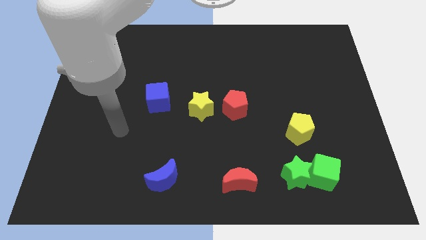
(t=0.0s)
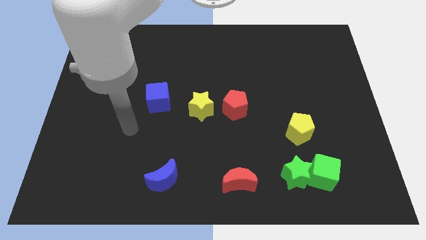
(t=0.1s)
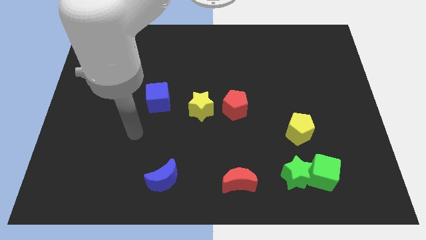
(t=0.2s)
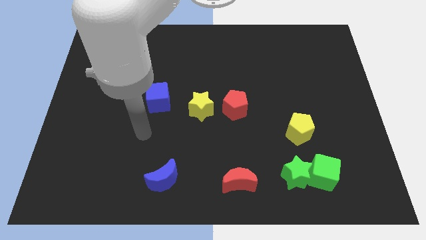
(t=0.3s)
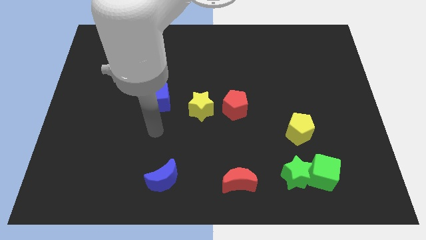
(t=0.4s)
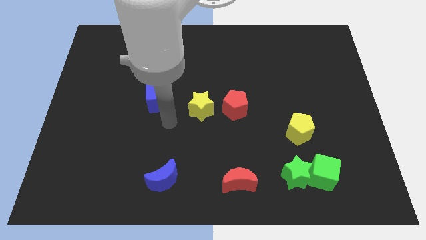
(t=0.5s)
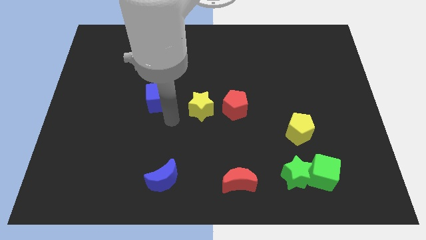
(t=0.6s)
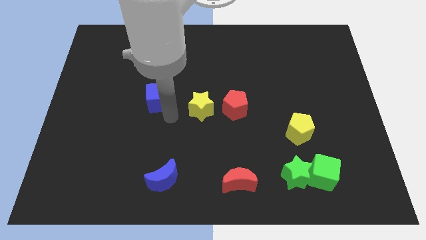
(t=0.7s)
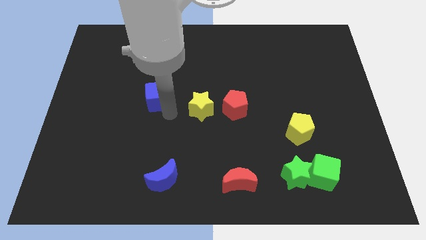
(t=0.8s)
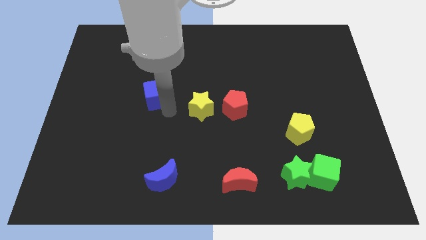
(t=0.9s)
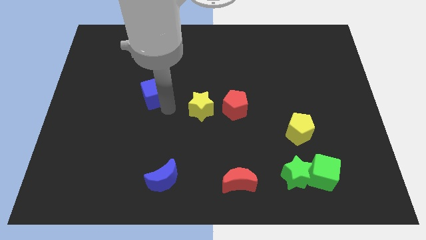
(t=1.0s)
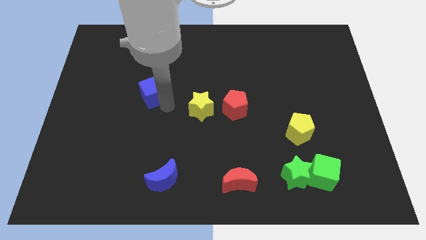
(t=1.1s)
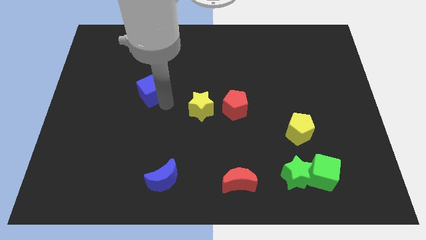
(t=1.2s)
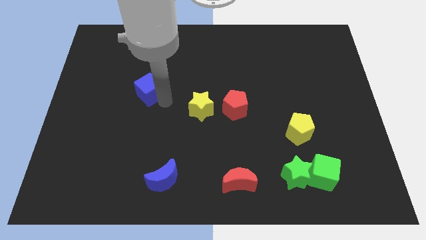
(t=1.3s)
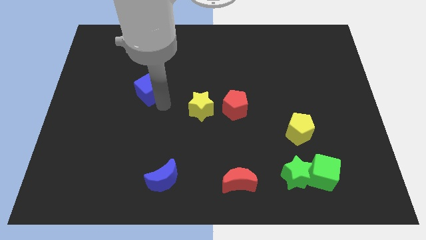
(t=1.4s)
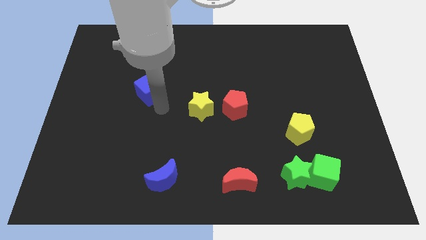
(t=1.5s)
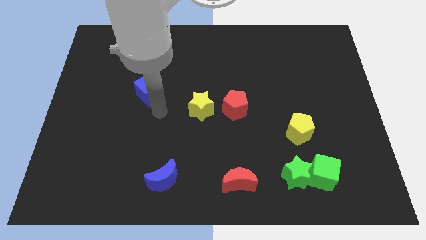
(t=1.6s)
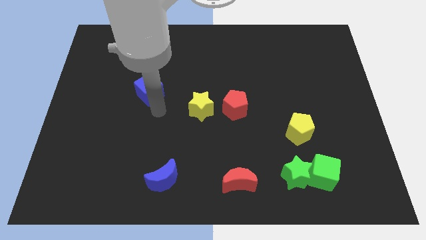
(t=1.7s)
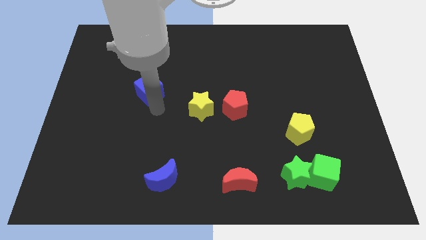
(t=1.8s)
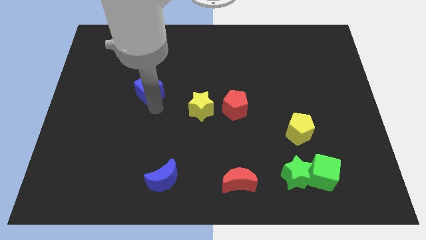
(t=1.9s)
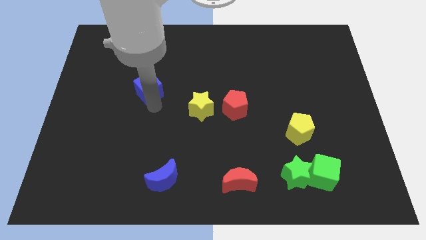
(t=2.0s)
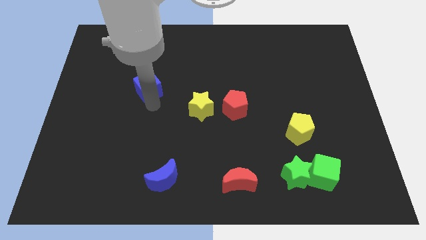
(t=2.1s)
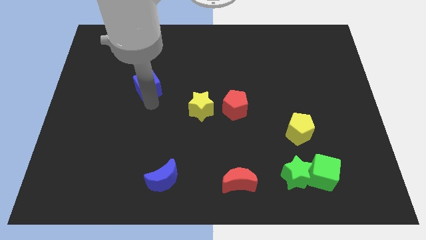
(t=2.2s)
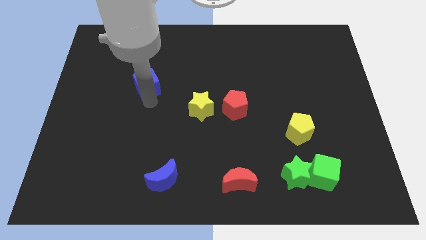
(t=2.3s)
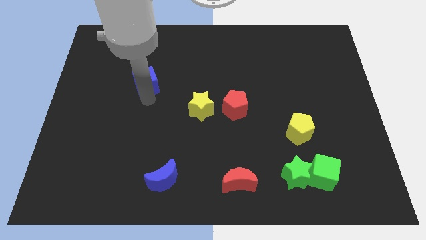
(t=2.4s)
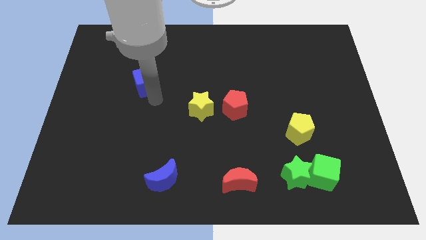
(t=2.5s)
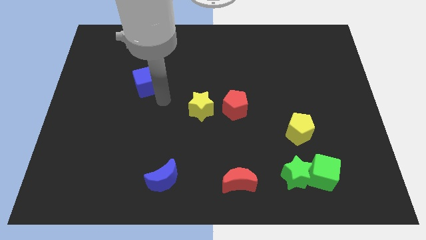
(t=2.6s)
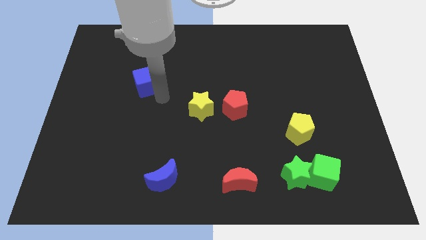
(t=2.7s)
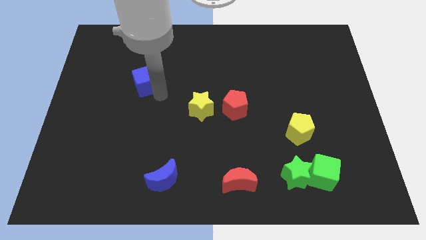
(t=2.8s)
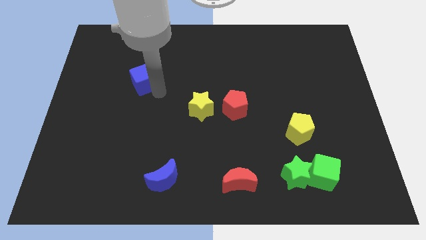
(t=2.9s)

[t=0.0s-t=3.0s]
slide the blue cube up and then left a little

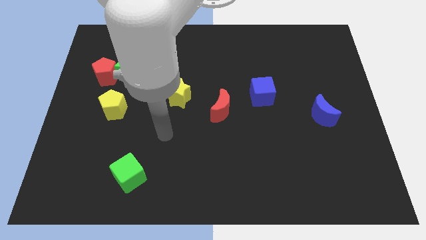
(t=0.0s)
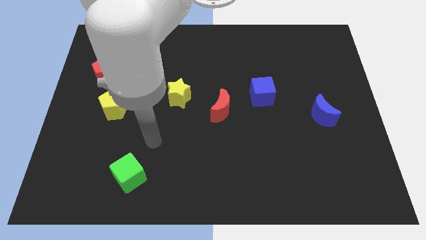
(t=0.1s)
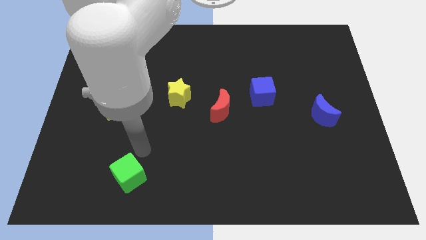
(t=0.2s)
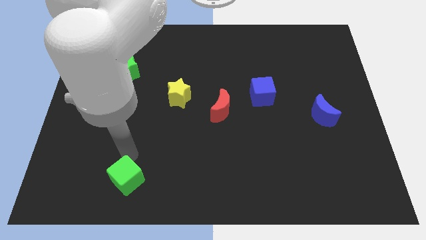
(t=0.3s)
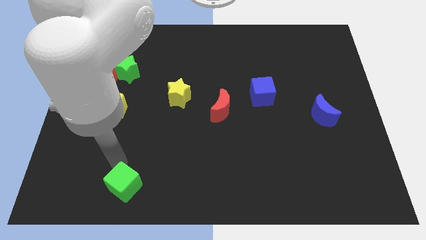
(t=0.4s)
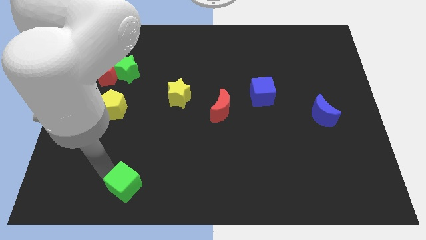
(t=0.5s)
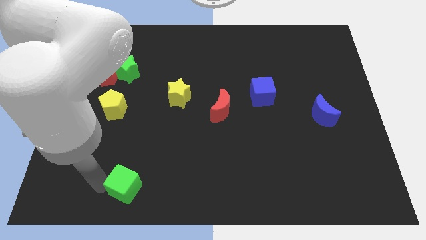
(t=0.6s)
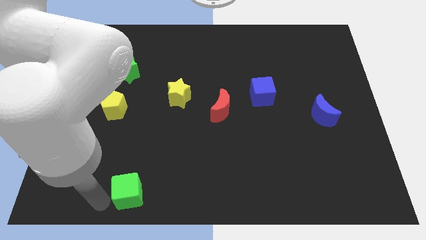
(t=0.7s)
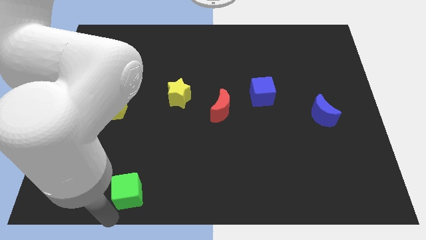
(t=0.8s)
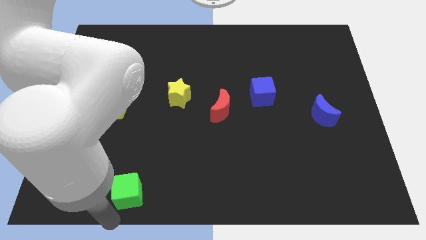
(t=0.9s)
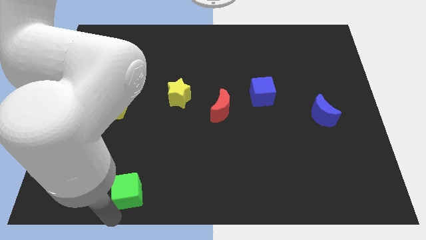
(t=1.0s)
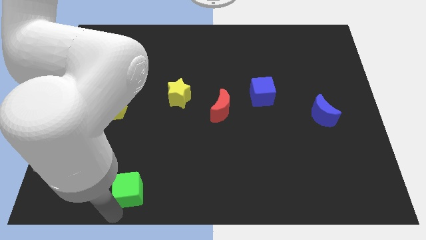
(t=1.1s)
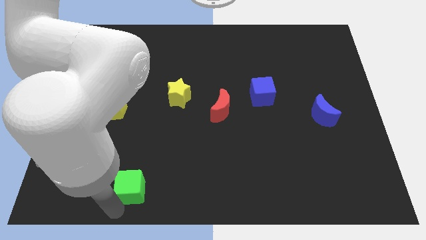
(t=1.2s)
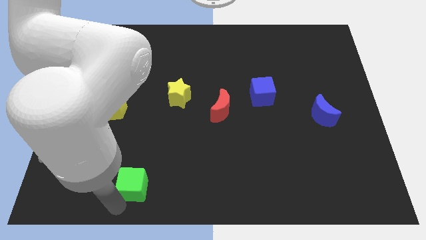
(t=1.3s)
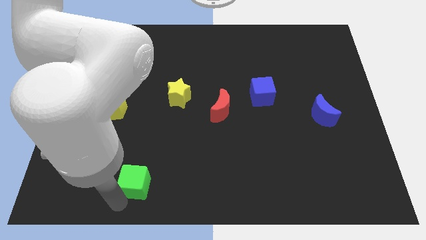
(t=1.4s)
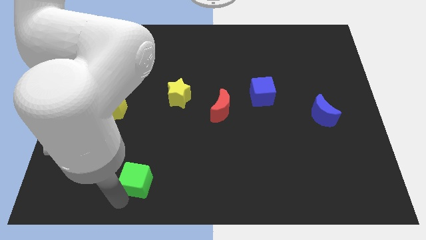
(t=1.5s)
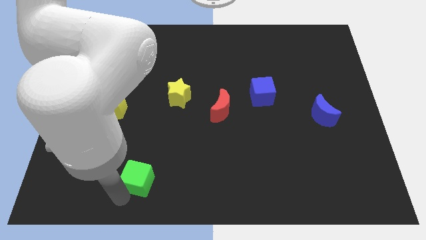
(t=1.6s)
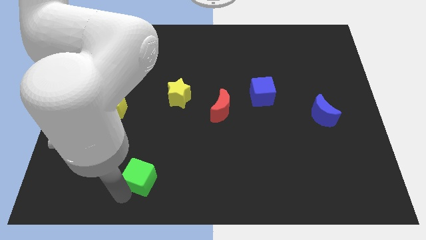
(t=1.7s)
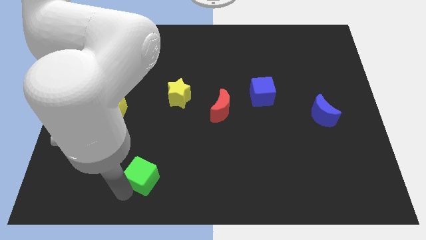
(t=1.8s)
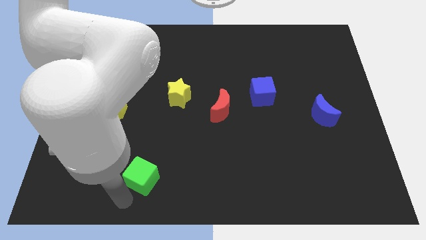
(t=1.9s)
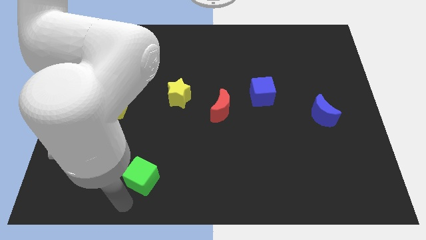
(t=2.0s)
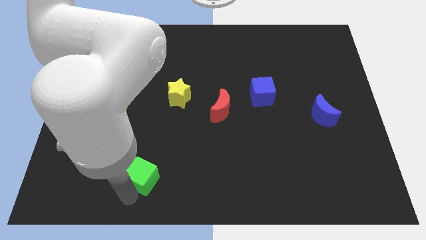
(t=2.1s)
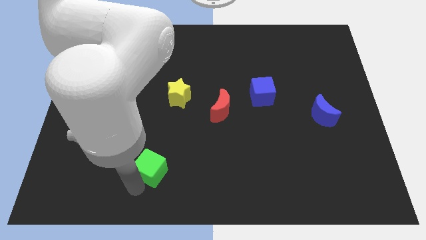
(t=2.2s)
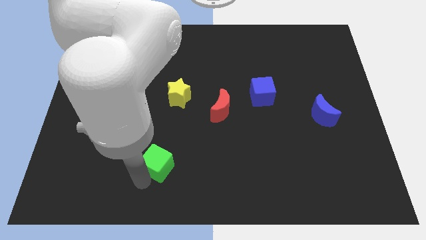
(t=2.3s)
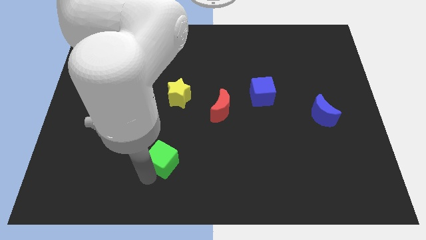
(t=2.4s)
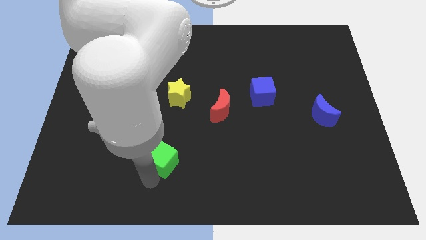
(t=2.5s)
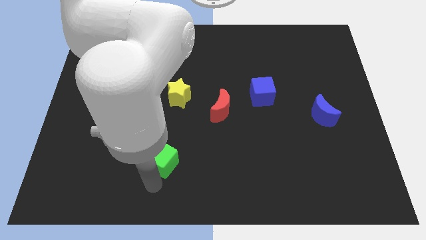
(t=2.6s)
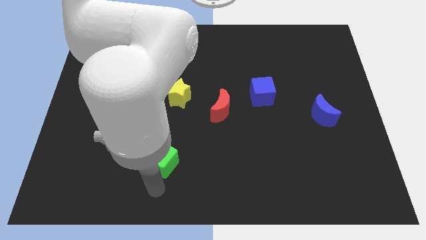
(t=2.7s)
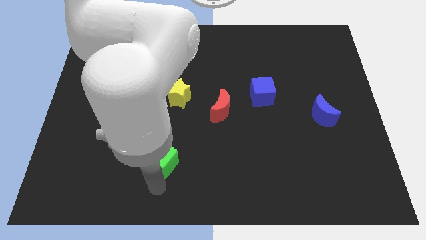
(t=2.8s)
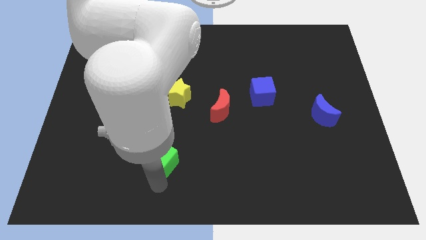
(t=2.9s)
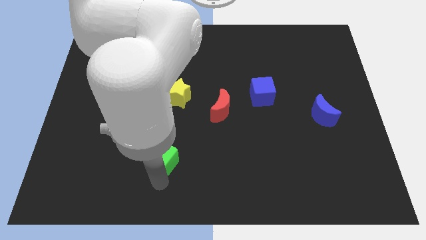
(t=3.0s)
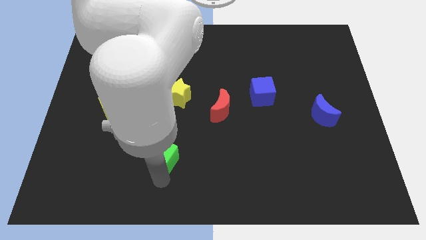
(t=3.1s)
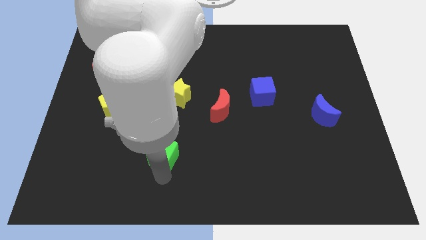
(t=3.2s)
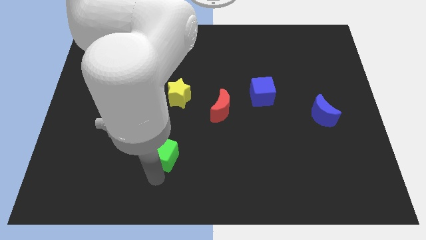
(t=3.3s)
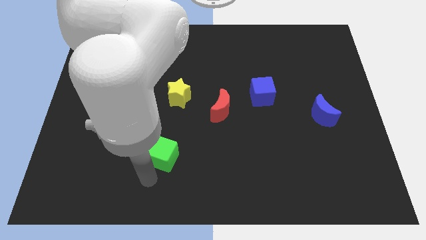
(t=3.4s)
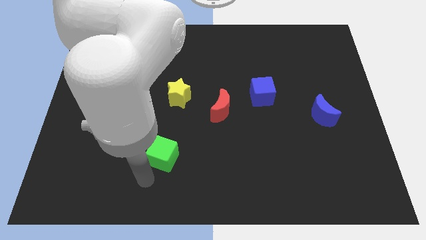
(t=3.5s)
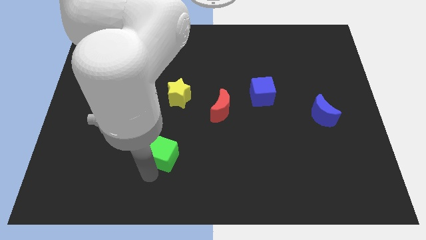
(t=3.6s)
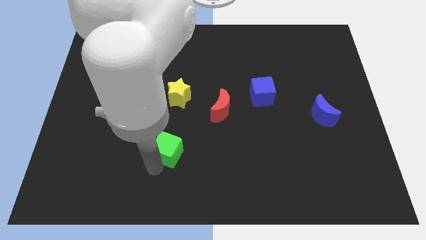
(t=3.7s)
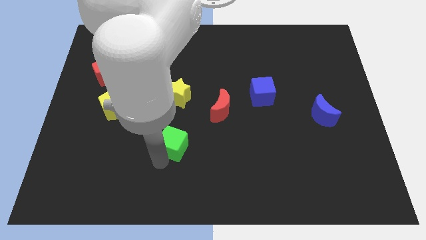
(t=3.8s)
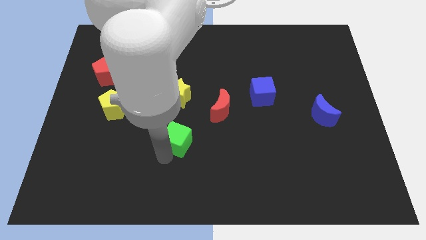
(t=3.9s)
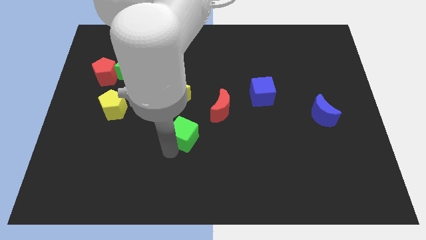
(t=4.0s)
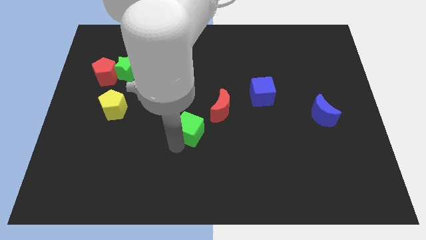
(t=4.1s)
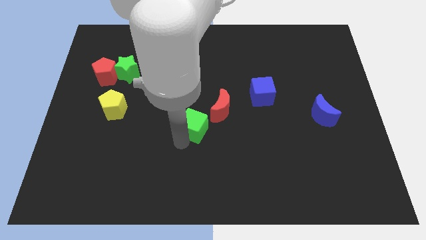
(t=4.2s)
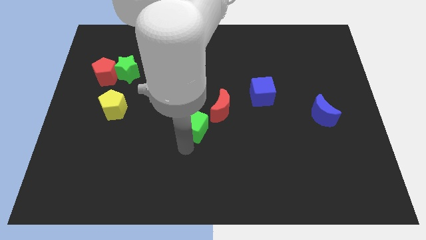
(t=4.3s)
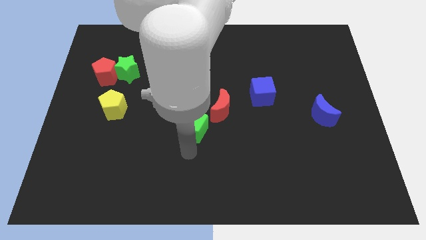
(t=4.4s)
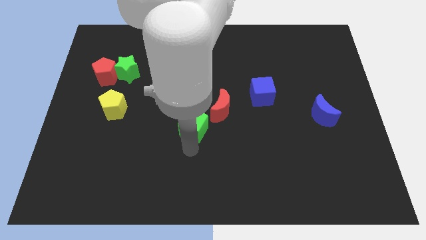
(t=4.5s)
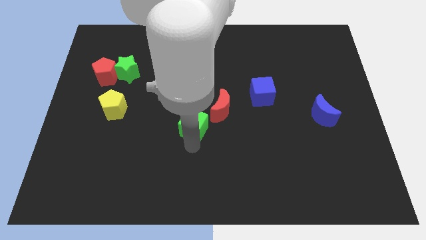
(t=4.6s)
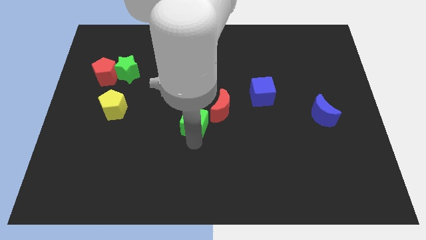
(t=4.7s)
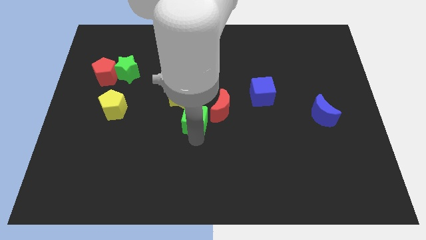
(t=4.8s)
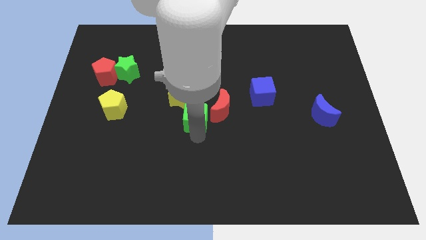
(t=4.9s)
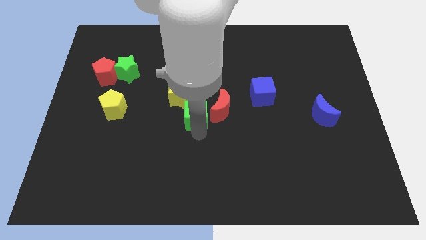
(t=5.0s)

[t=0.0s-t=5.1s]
push the green cube up and right
